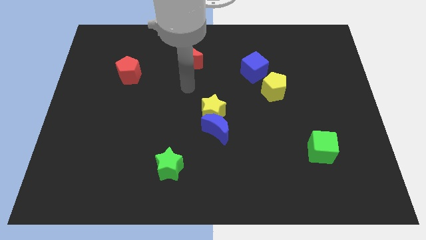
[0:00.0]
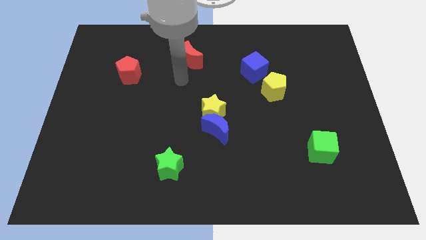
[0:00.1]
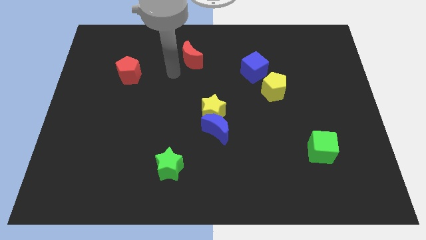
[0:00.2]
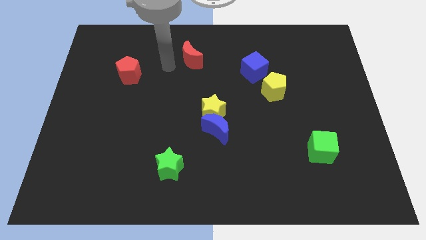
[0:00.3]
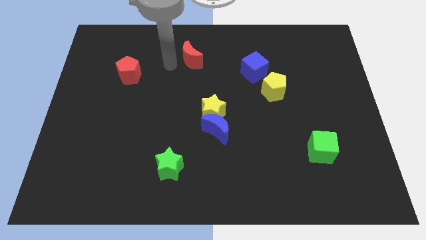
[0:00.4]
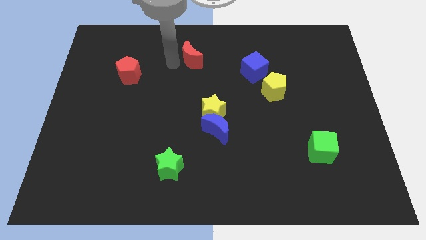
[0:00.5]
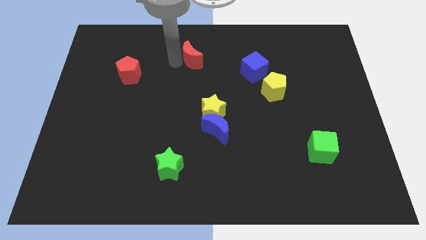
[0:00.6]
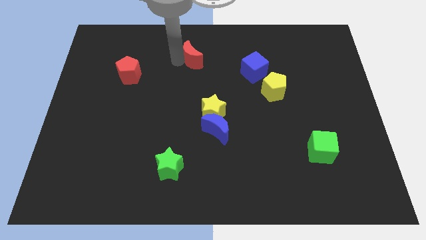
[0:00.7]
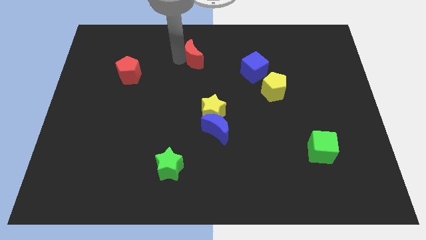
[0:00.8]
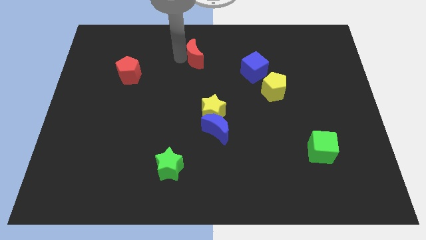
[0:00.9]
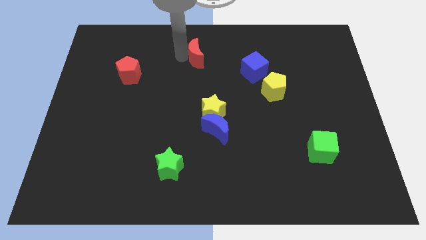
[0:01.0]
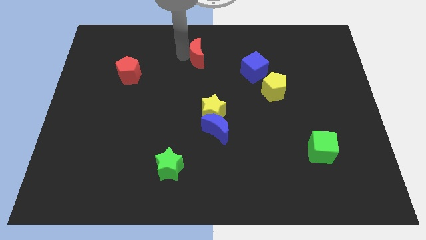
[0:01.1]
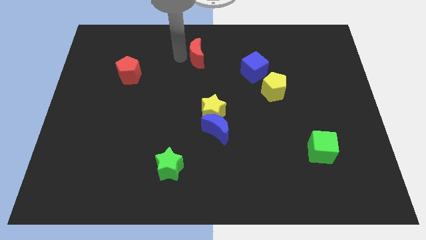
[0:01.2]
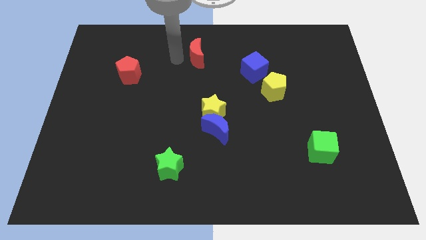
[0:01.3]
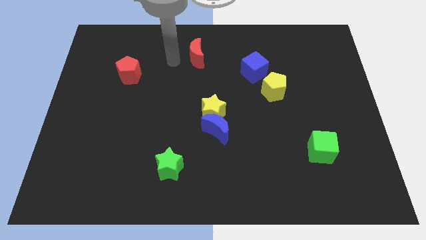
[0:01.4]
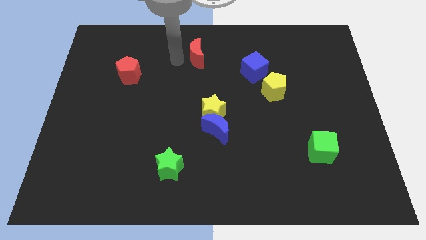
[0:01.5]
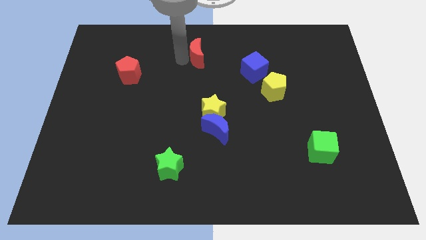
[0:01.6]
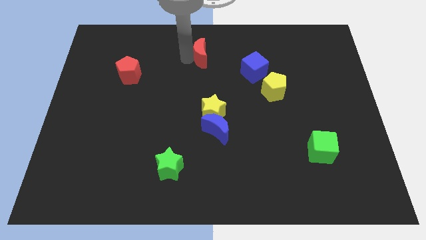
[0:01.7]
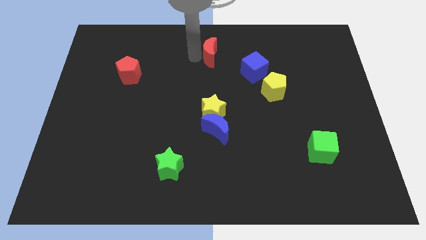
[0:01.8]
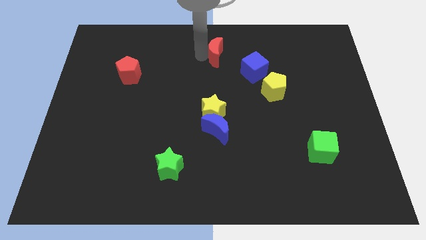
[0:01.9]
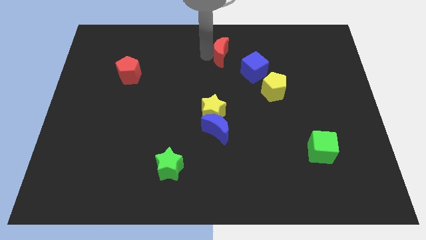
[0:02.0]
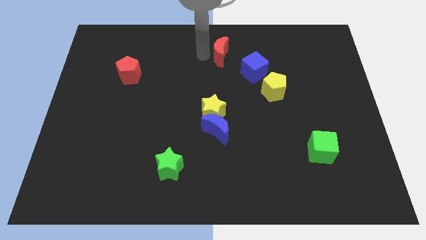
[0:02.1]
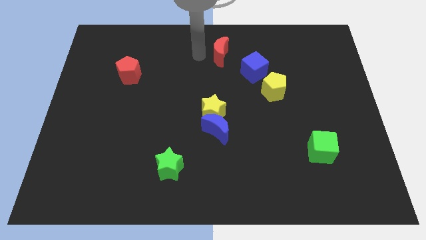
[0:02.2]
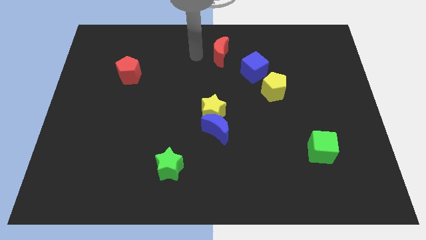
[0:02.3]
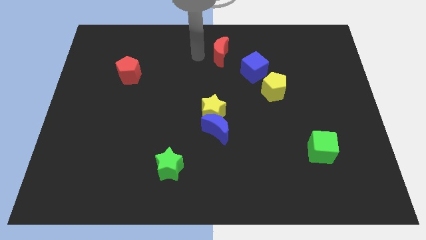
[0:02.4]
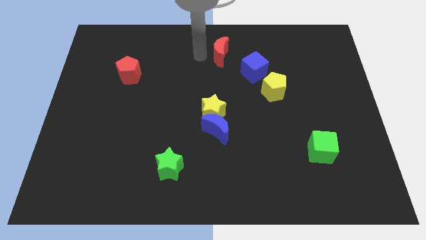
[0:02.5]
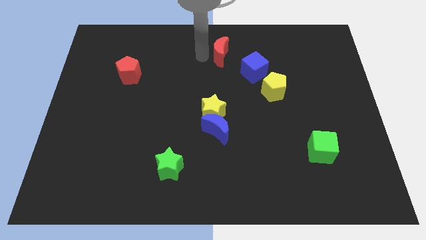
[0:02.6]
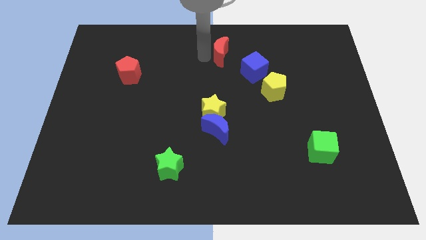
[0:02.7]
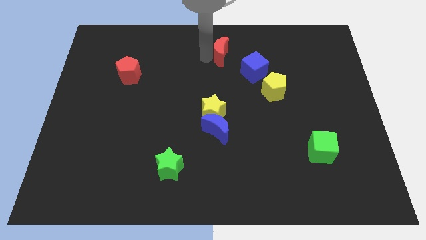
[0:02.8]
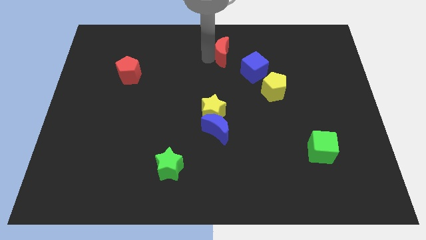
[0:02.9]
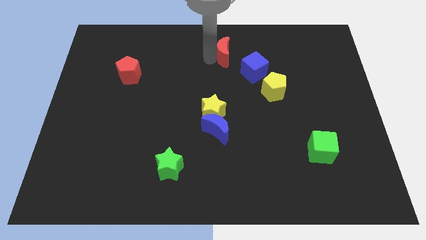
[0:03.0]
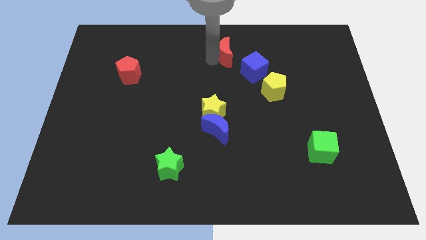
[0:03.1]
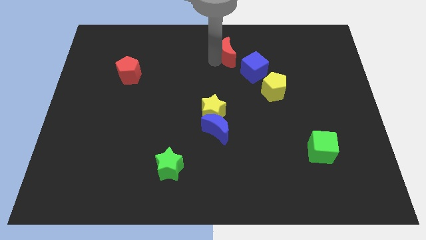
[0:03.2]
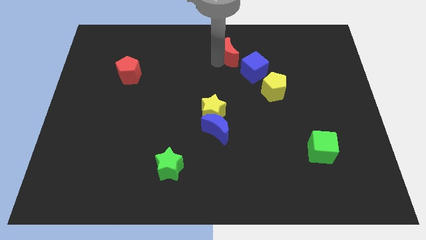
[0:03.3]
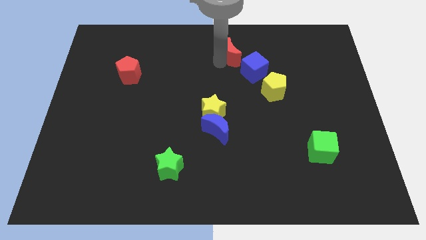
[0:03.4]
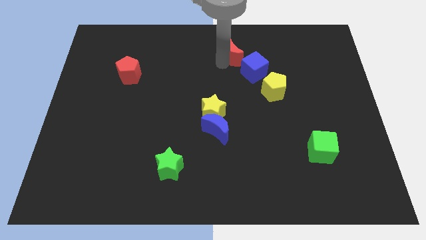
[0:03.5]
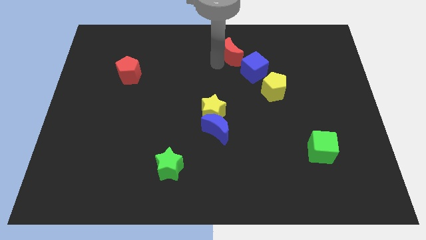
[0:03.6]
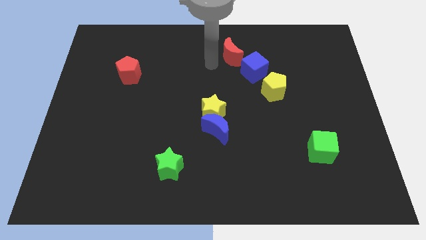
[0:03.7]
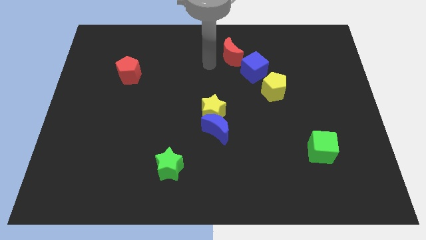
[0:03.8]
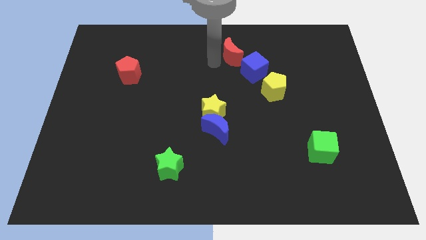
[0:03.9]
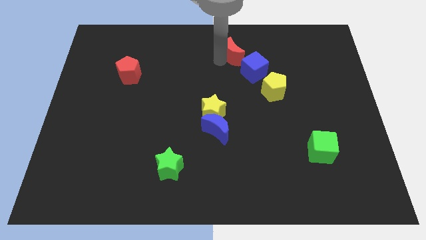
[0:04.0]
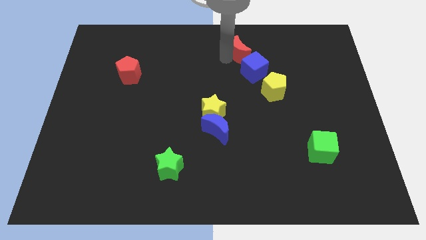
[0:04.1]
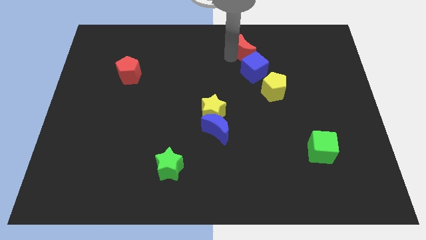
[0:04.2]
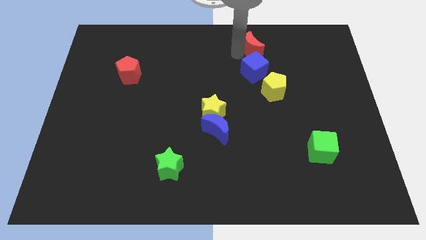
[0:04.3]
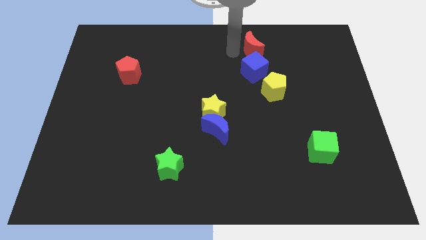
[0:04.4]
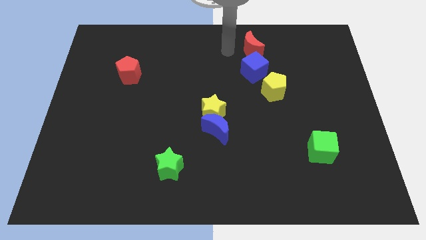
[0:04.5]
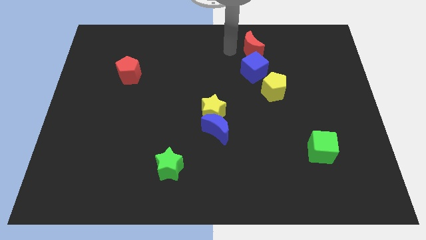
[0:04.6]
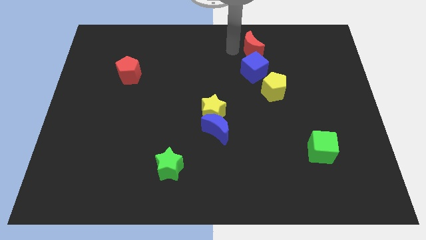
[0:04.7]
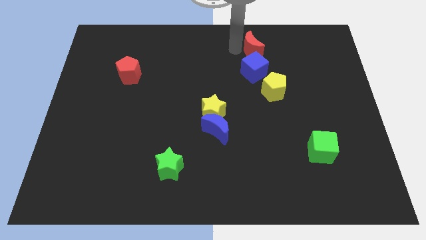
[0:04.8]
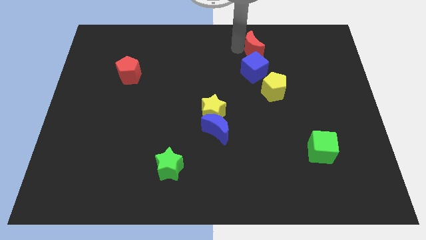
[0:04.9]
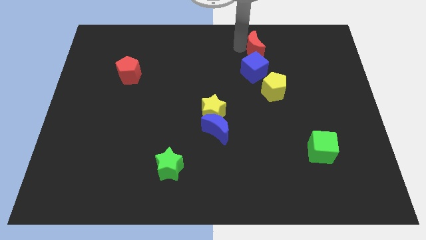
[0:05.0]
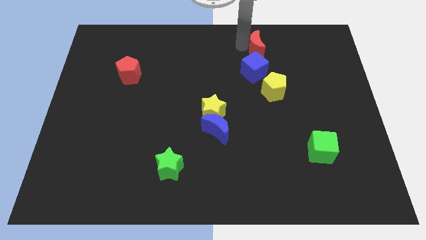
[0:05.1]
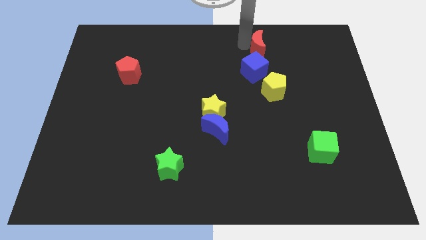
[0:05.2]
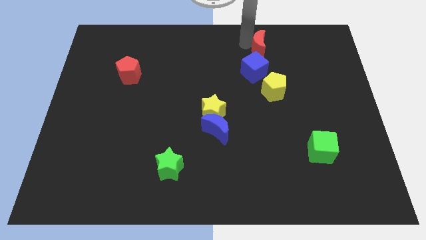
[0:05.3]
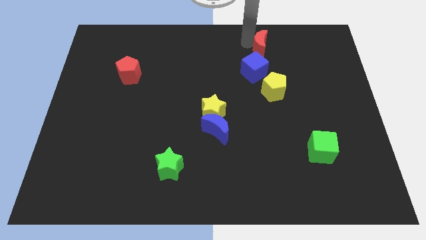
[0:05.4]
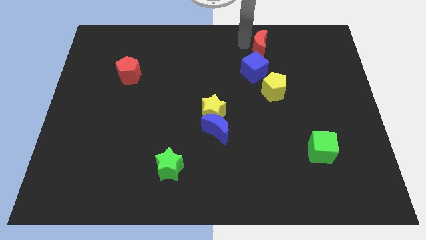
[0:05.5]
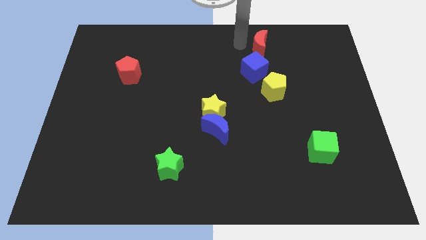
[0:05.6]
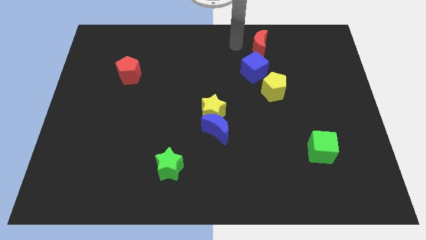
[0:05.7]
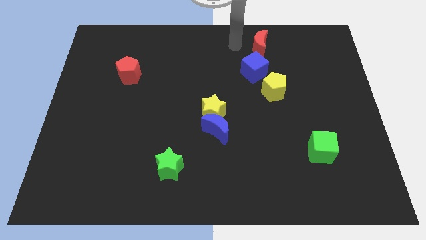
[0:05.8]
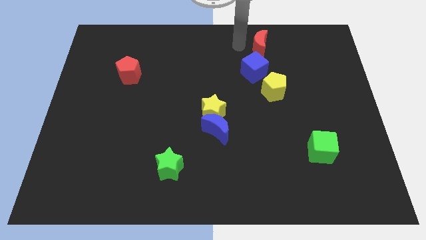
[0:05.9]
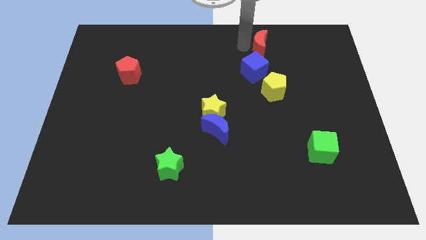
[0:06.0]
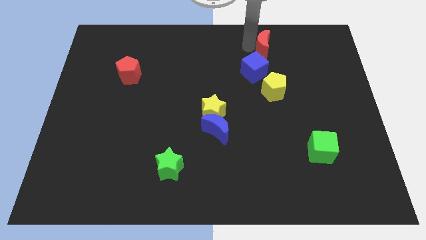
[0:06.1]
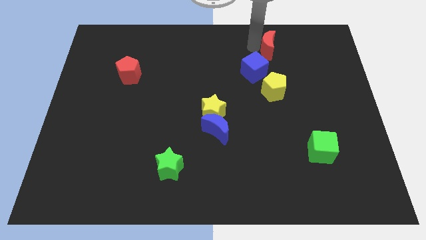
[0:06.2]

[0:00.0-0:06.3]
move the red moon to the right

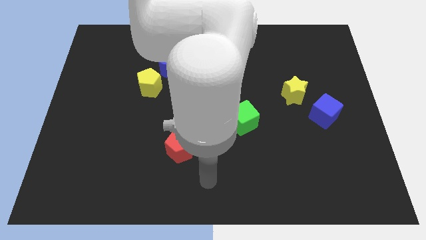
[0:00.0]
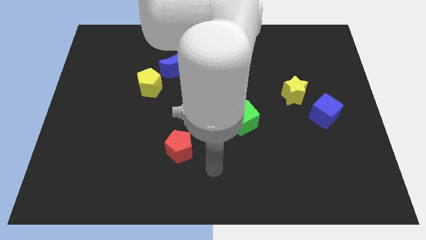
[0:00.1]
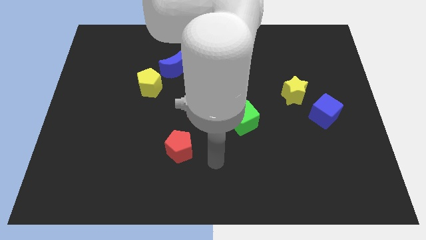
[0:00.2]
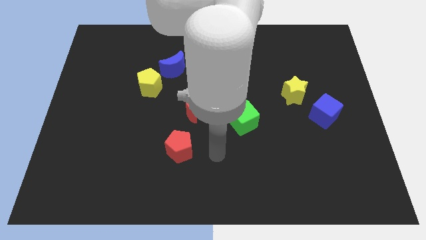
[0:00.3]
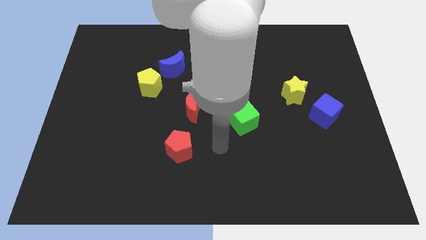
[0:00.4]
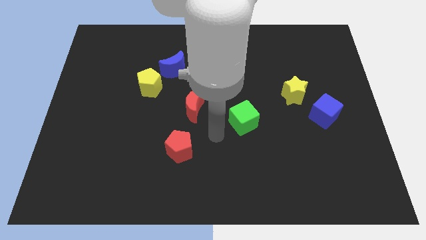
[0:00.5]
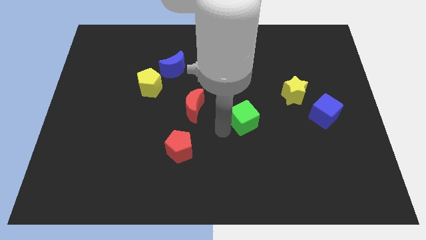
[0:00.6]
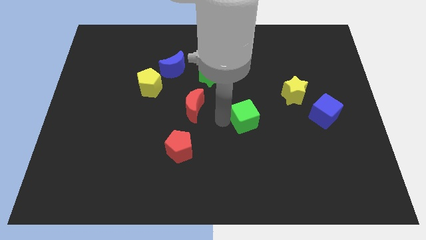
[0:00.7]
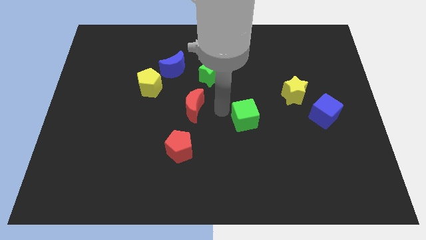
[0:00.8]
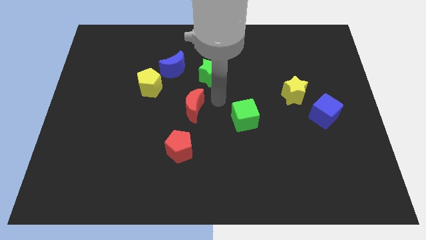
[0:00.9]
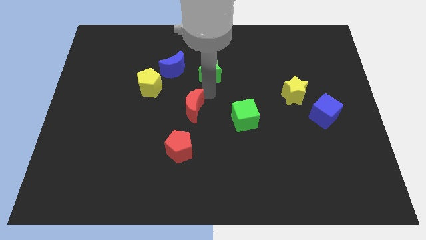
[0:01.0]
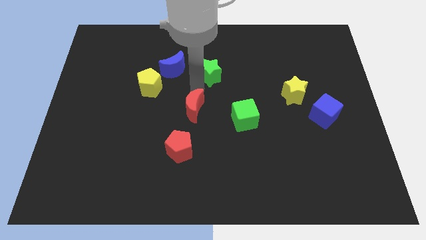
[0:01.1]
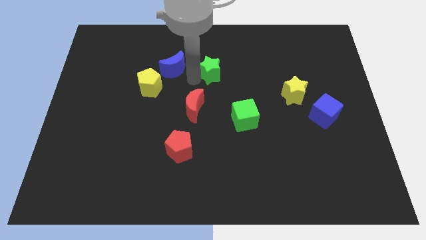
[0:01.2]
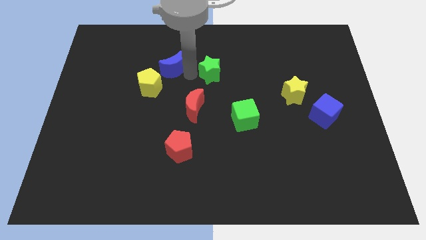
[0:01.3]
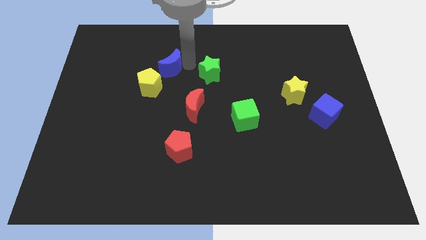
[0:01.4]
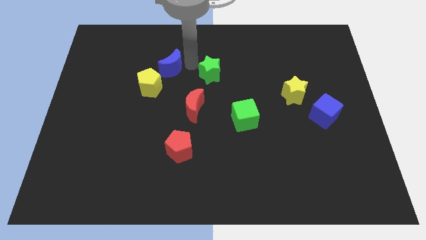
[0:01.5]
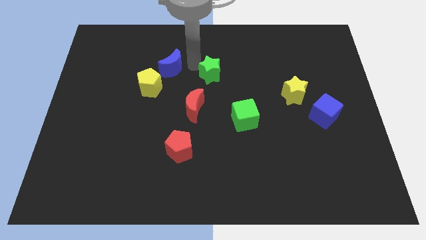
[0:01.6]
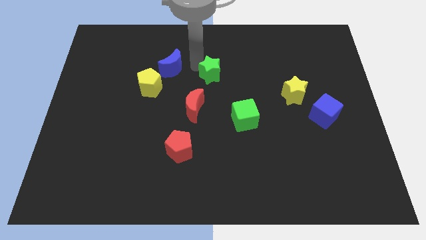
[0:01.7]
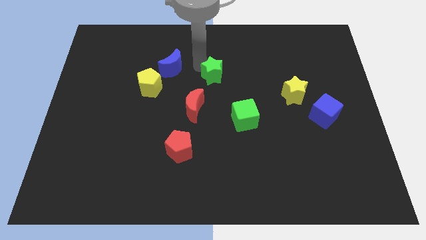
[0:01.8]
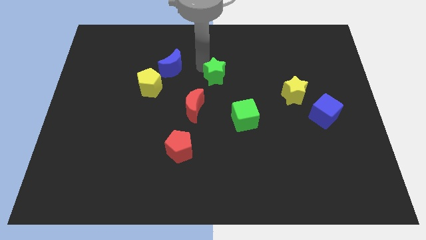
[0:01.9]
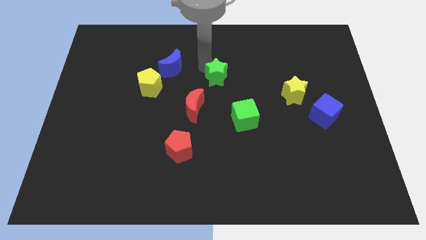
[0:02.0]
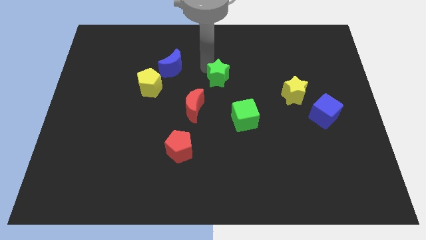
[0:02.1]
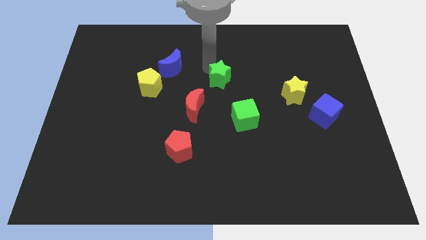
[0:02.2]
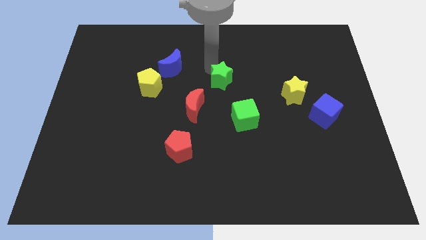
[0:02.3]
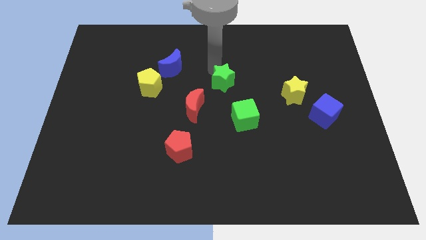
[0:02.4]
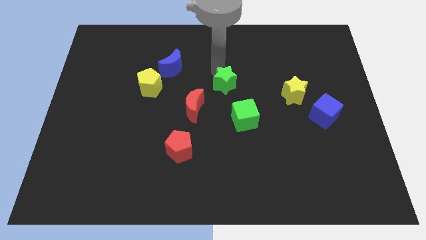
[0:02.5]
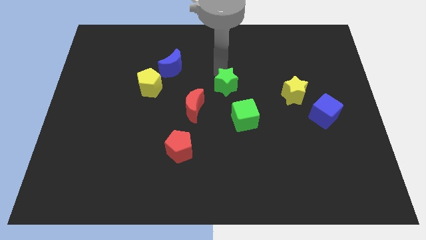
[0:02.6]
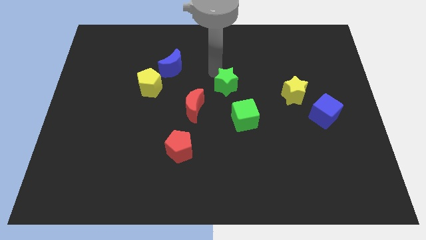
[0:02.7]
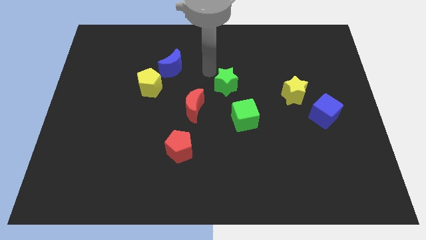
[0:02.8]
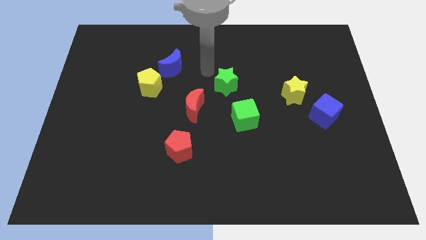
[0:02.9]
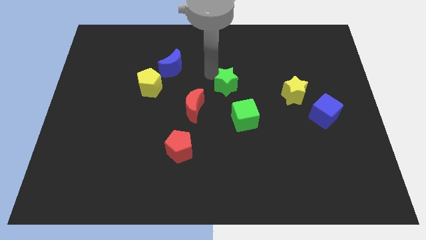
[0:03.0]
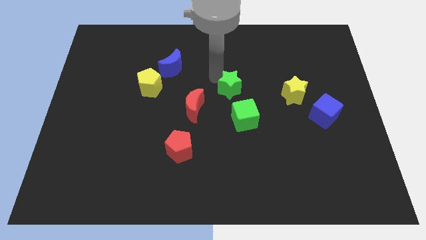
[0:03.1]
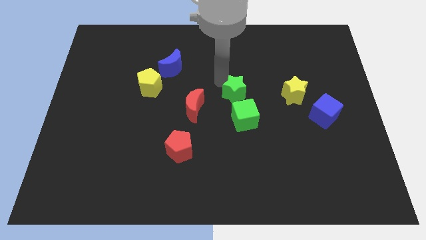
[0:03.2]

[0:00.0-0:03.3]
slide the green star downwards and to the right diagonally slightly
